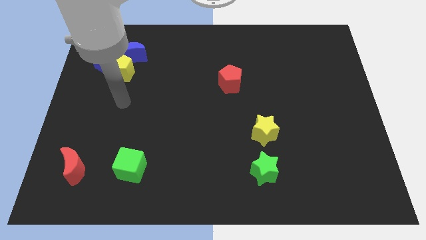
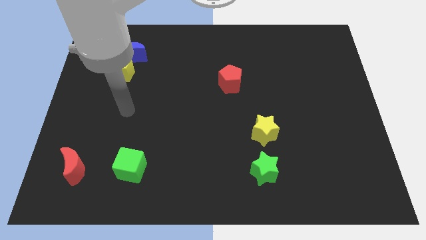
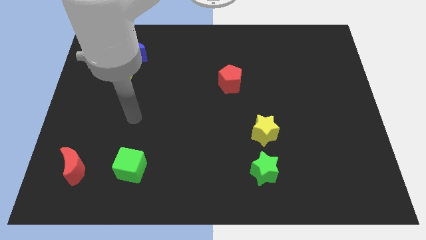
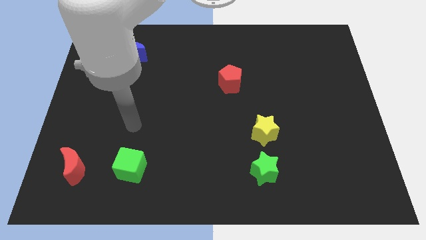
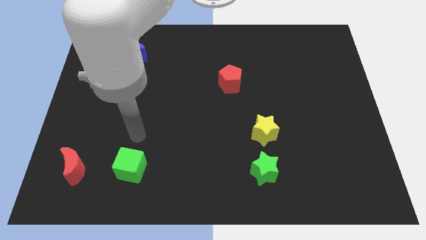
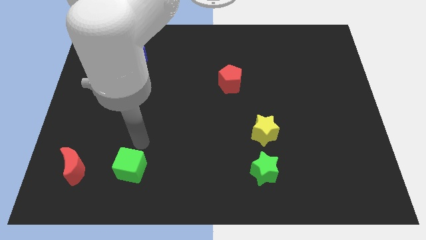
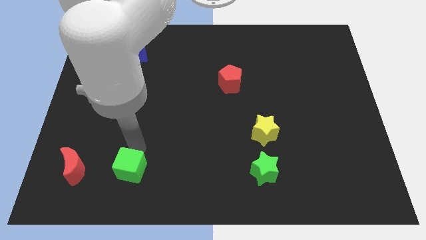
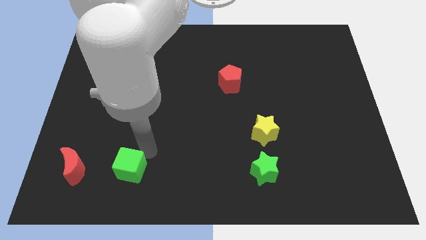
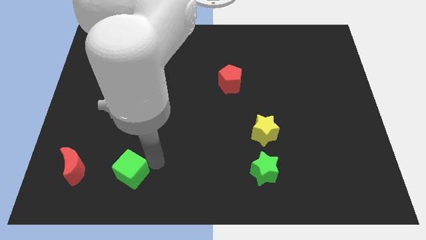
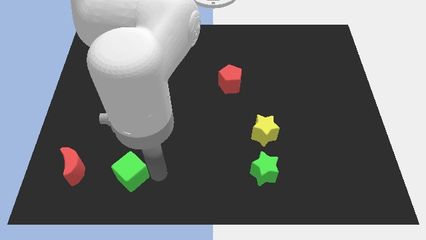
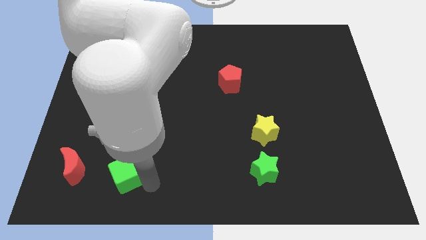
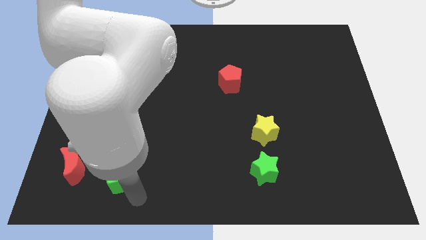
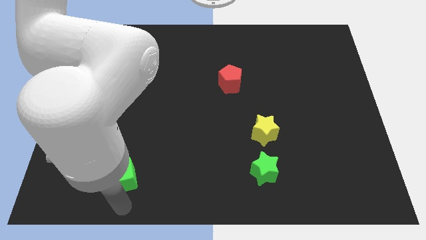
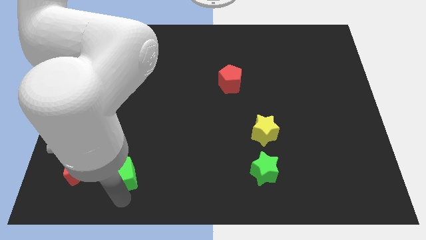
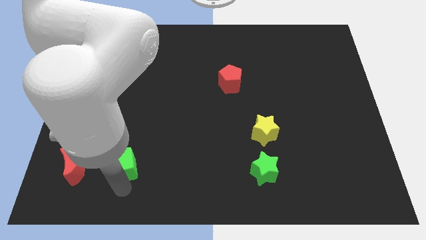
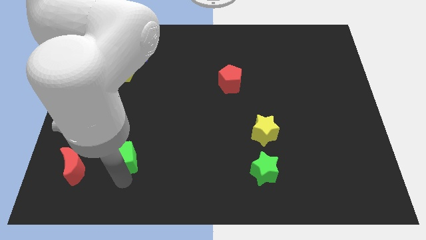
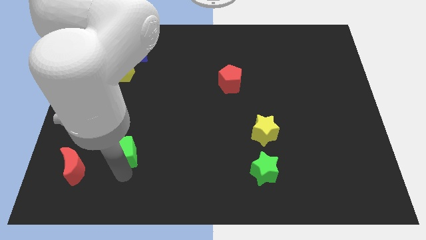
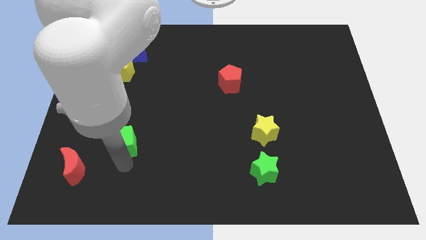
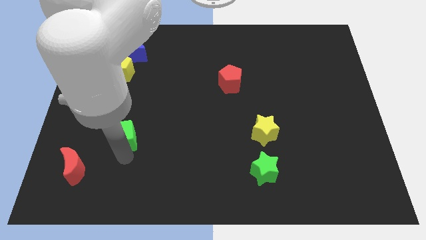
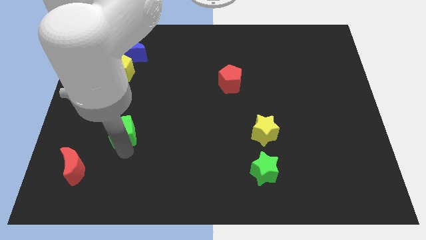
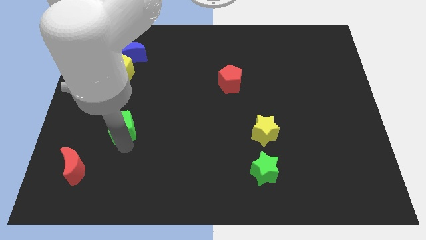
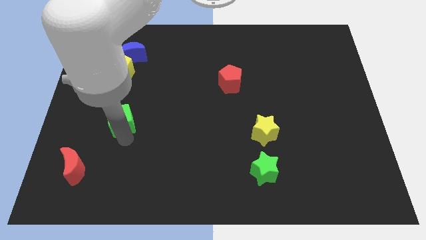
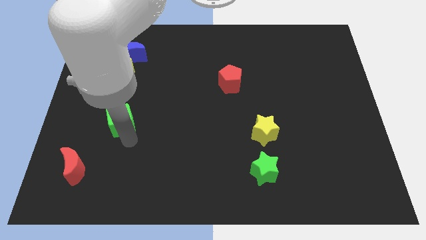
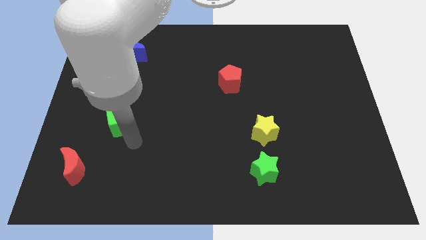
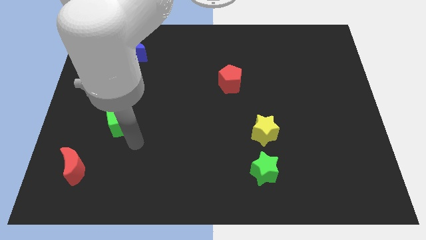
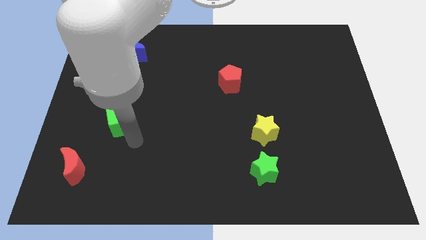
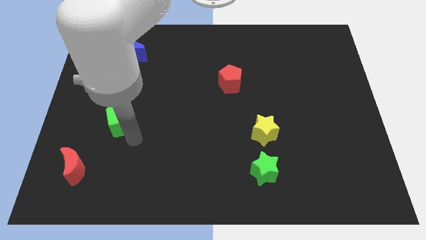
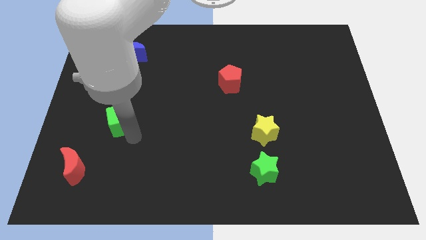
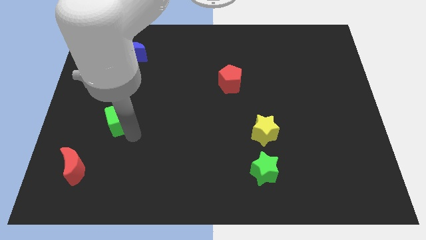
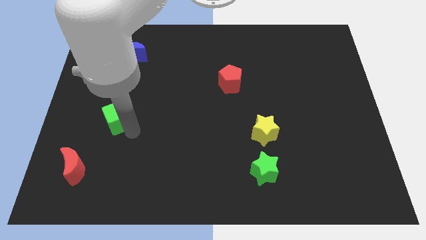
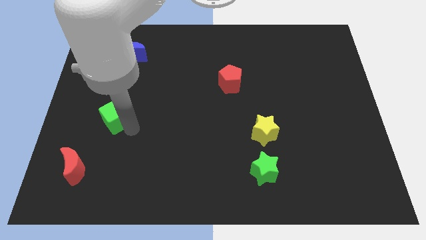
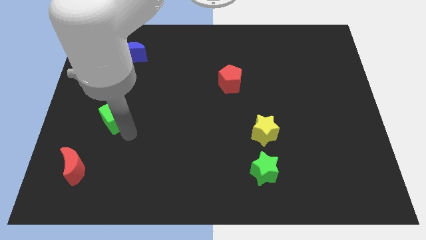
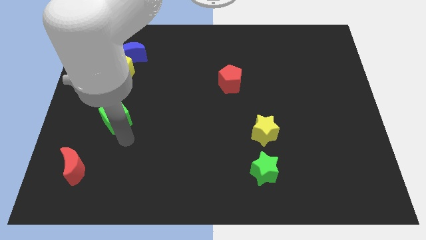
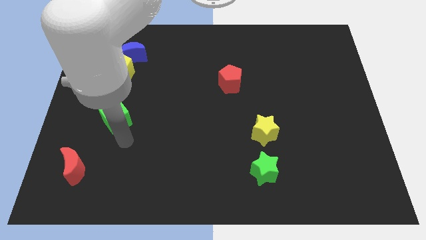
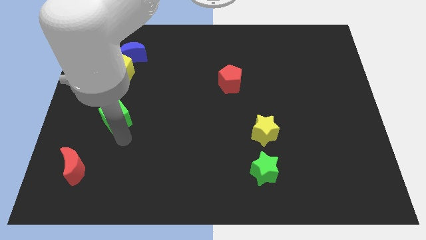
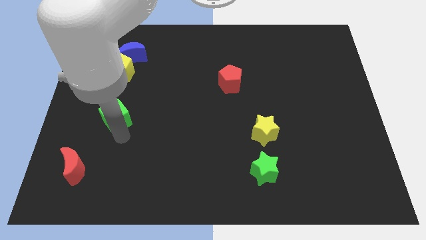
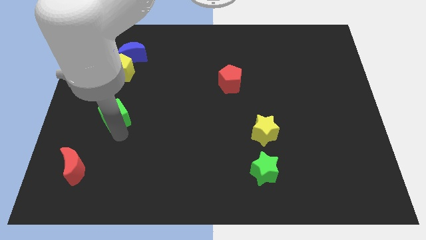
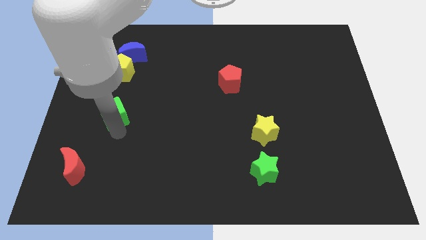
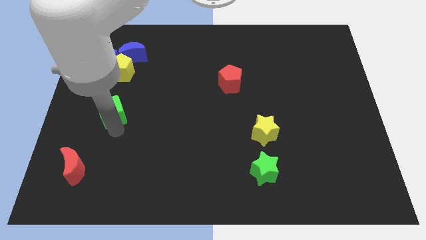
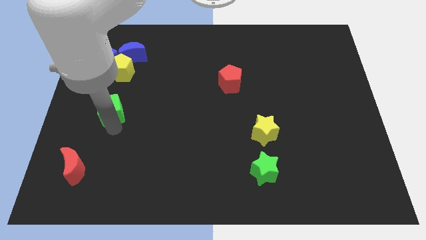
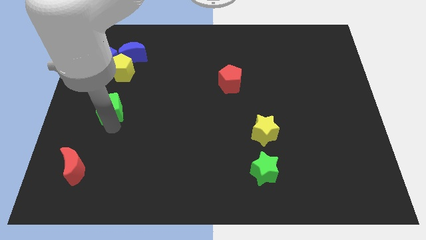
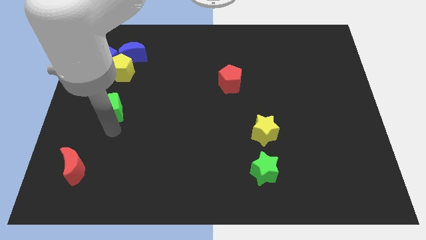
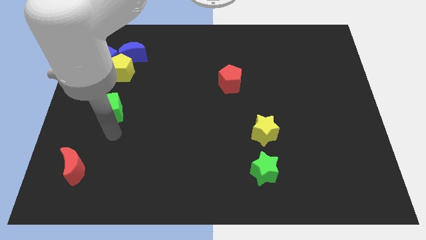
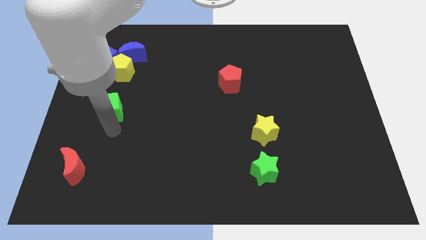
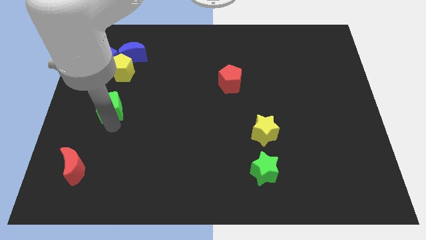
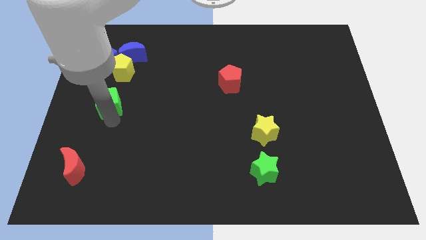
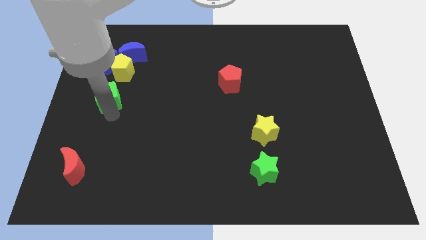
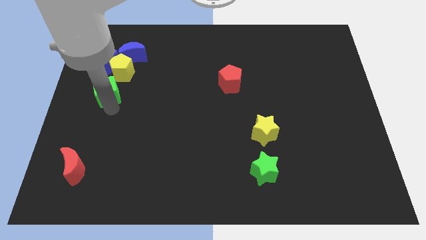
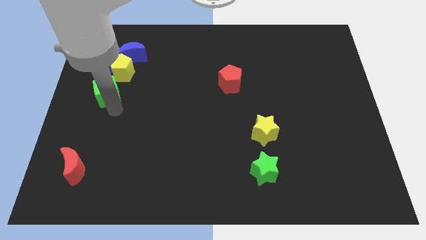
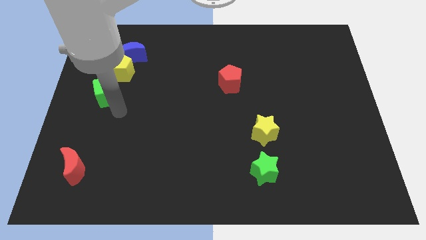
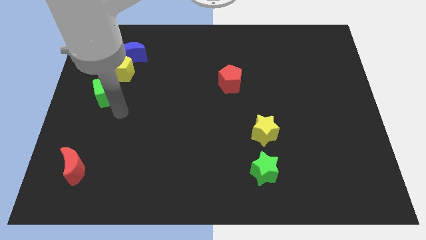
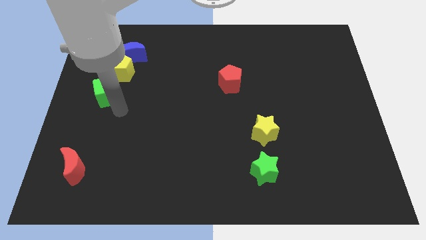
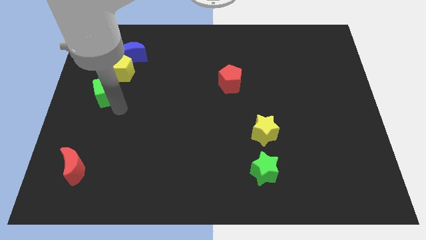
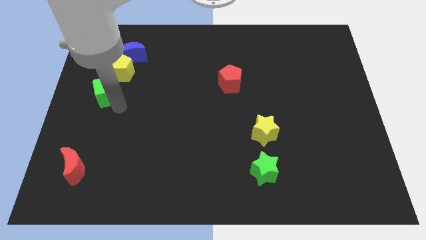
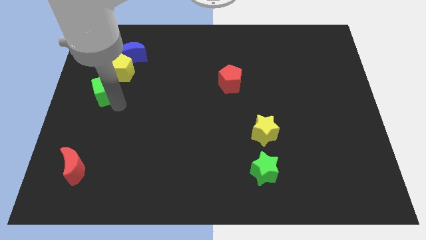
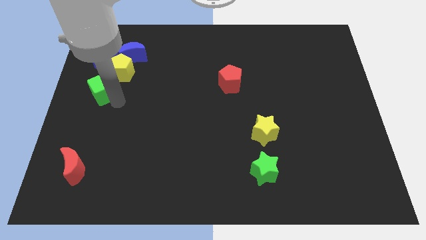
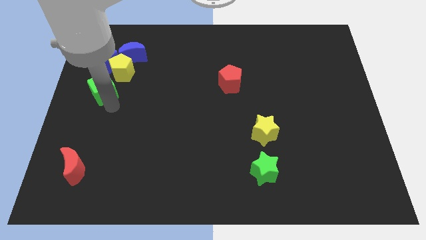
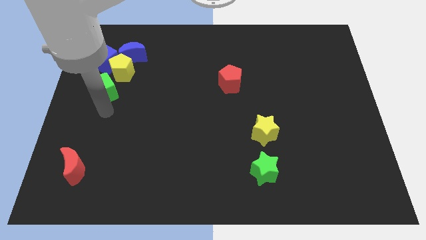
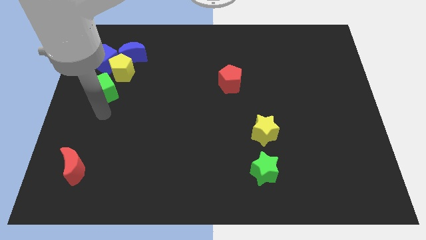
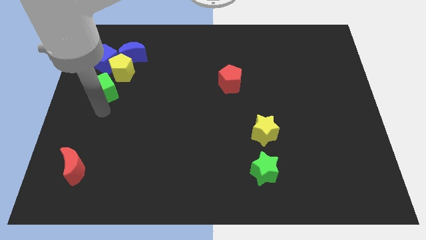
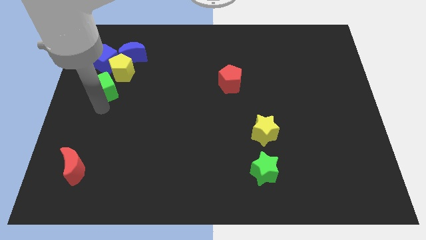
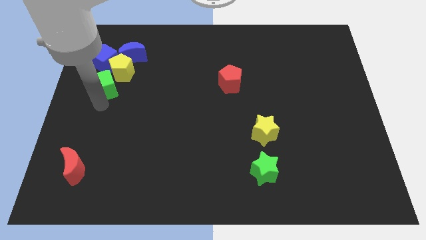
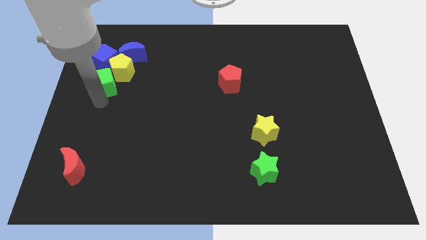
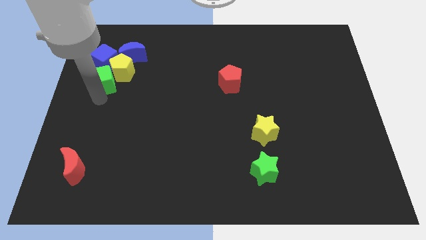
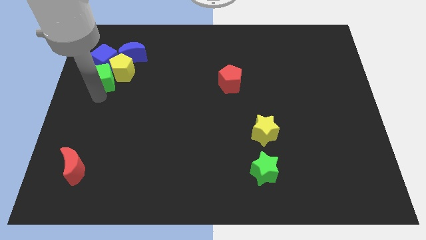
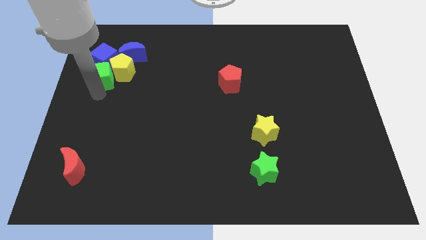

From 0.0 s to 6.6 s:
slide the green cube next to the blue cube

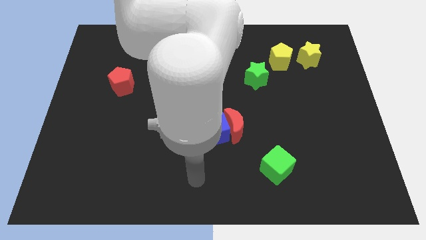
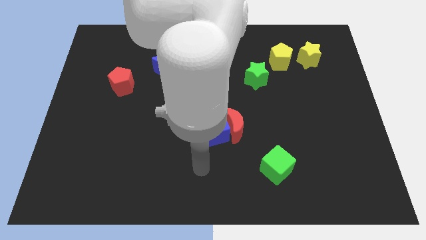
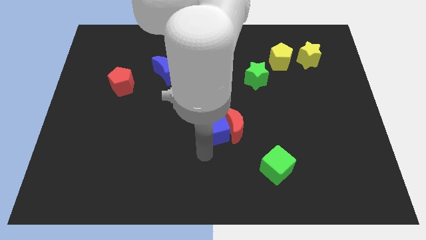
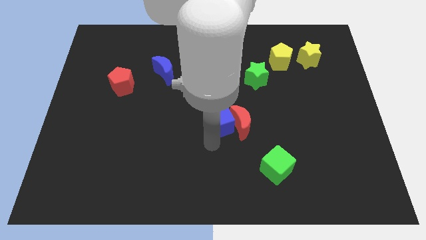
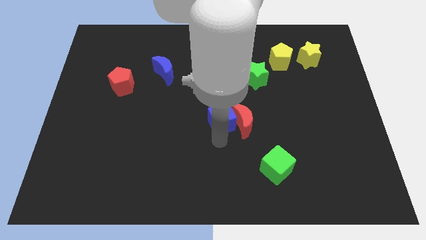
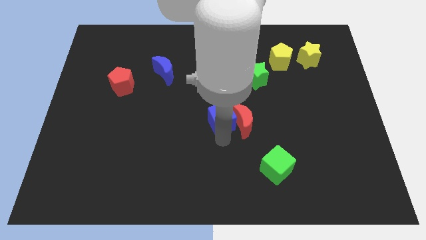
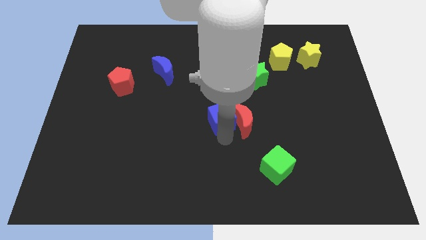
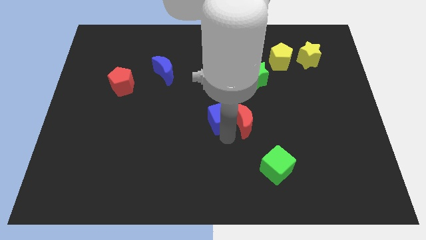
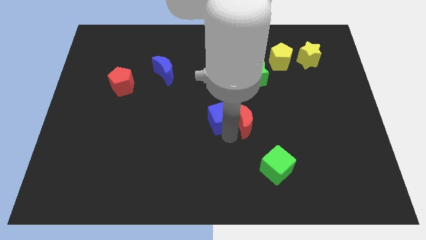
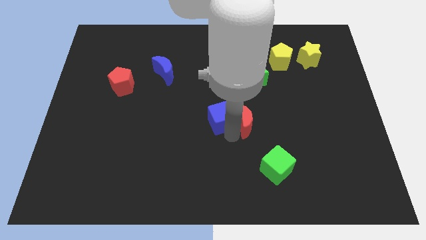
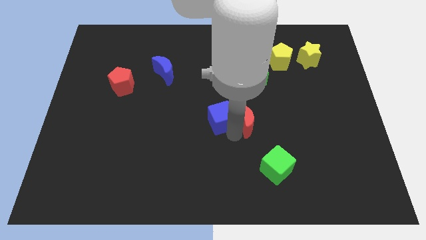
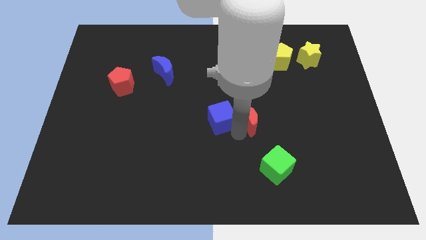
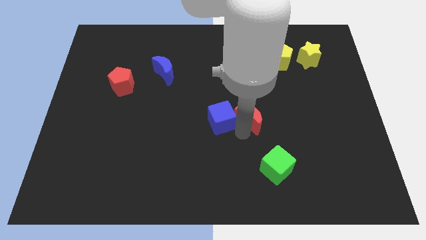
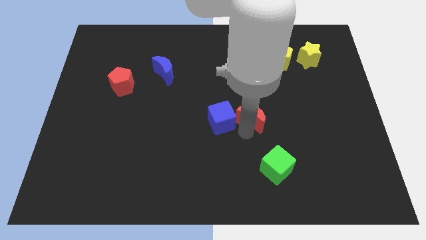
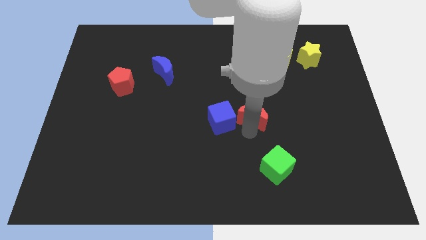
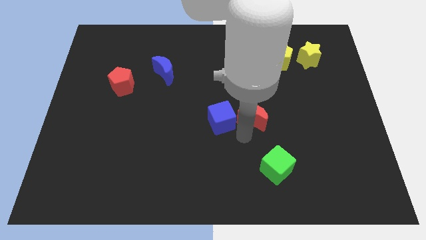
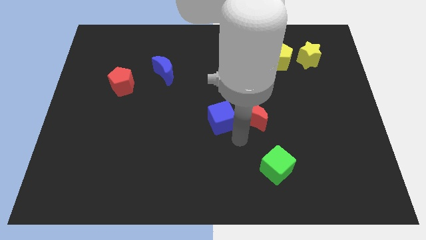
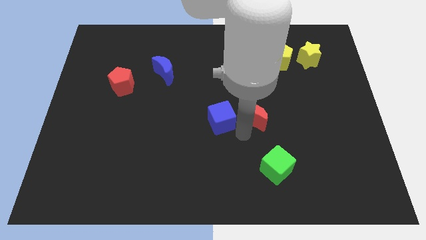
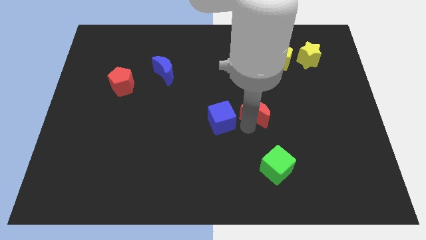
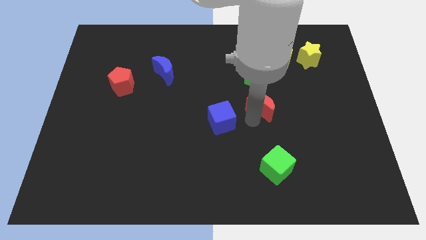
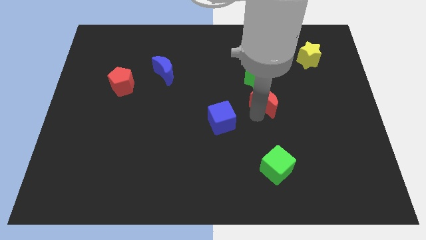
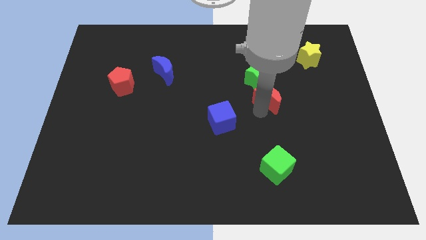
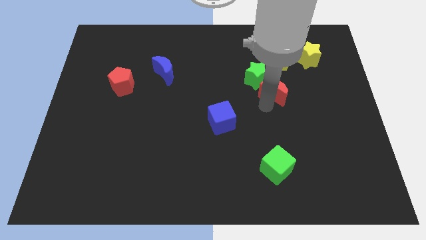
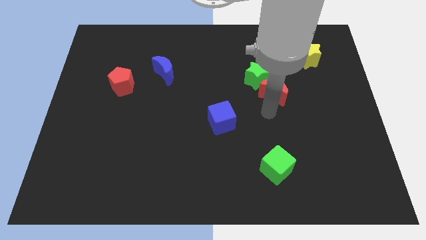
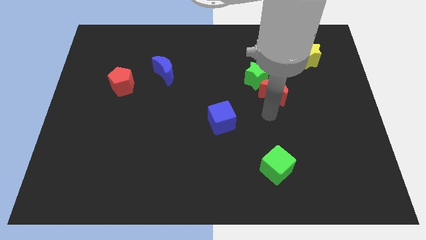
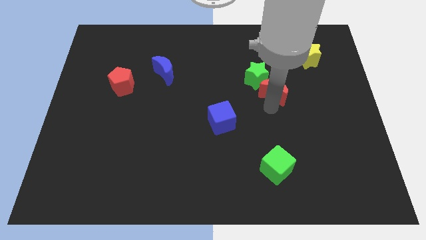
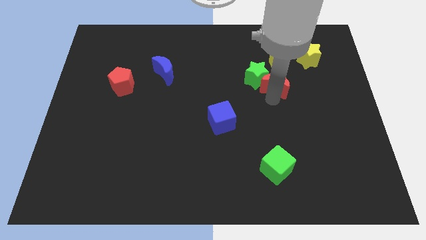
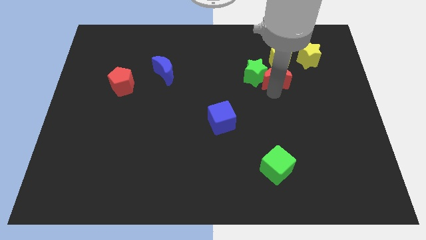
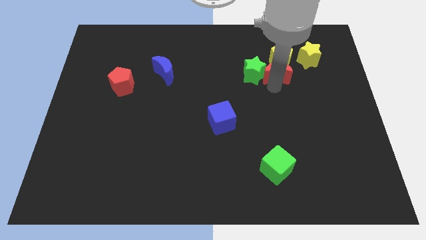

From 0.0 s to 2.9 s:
move the red moon close to the yellow pentagon
